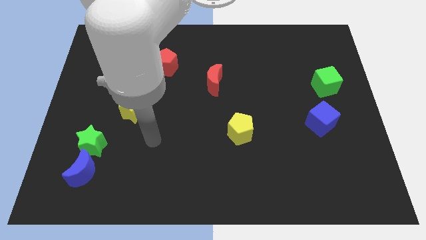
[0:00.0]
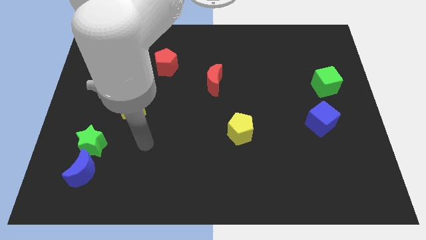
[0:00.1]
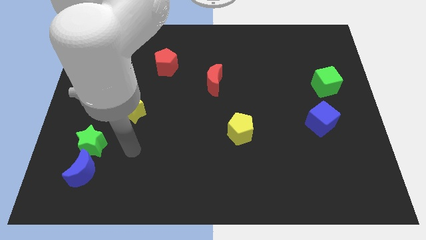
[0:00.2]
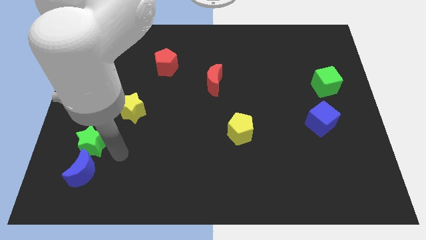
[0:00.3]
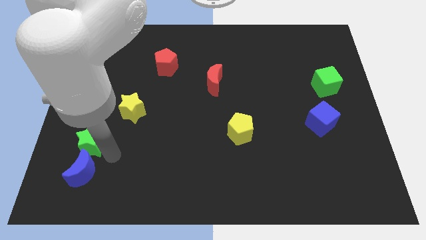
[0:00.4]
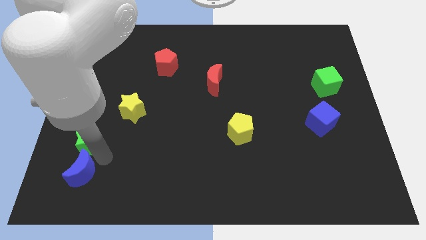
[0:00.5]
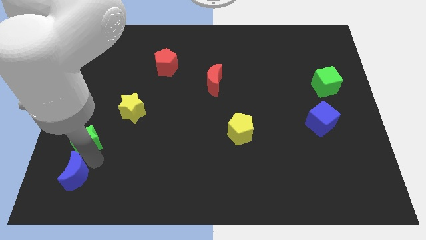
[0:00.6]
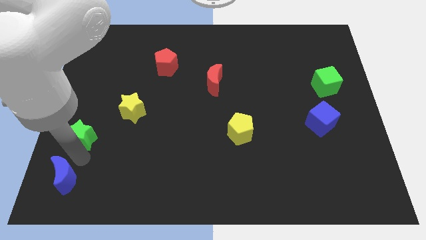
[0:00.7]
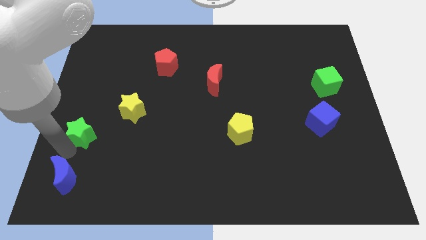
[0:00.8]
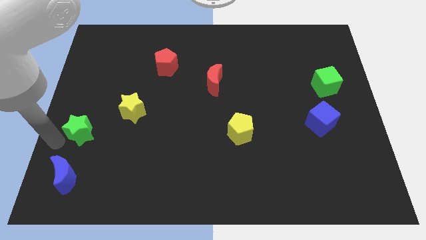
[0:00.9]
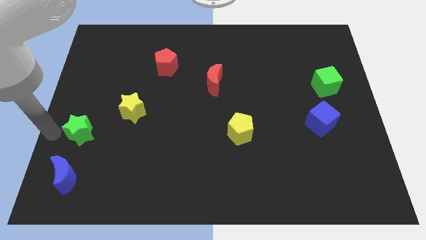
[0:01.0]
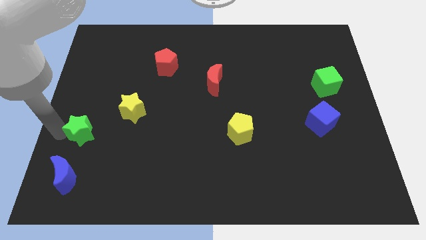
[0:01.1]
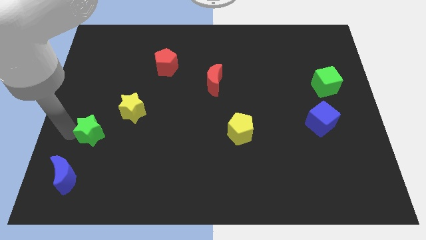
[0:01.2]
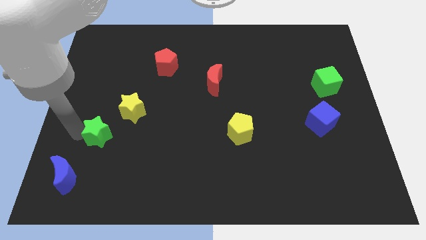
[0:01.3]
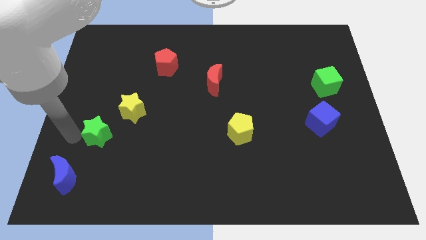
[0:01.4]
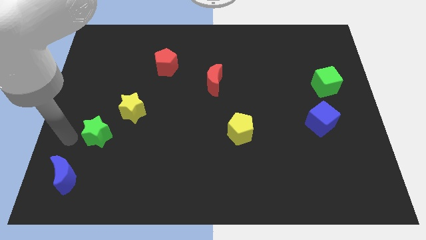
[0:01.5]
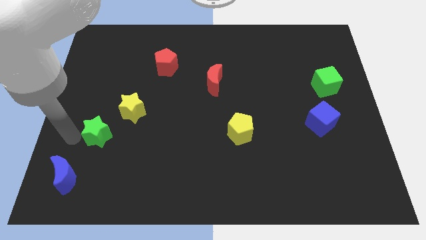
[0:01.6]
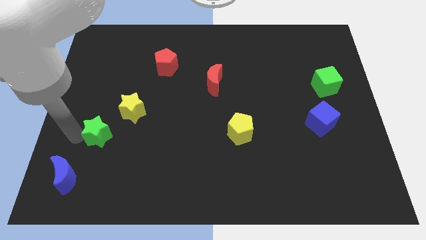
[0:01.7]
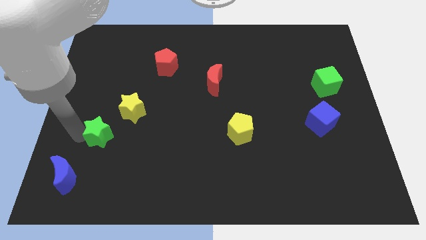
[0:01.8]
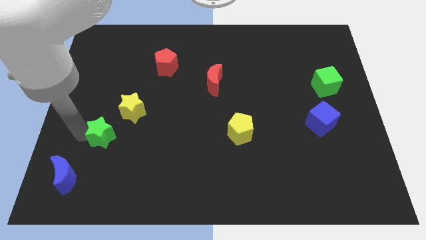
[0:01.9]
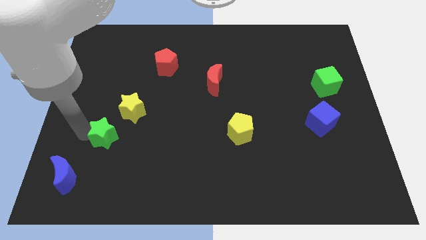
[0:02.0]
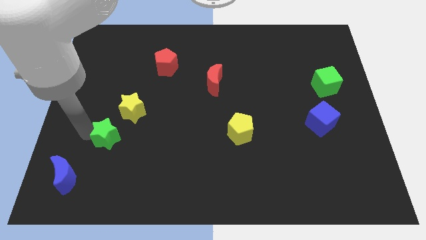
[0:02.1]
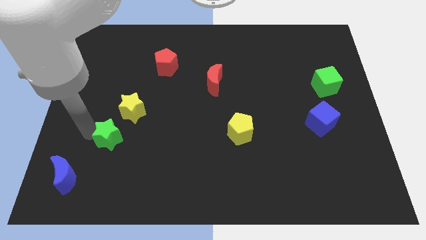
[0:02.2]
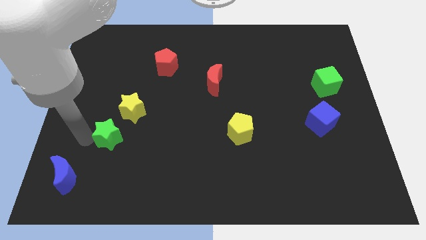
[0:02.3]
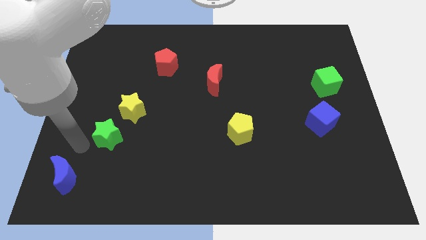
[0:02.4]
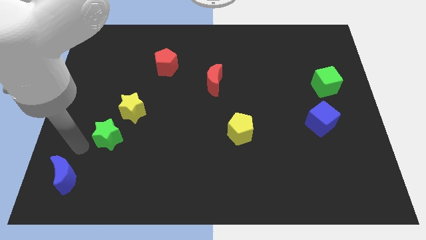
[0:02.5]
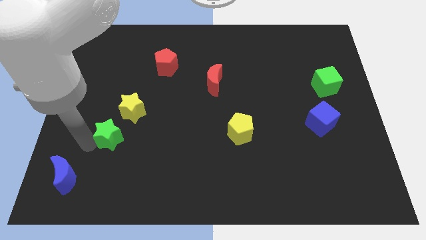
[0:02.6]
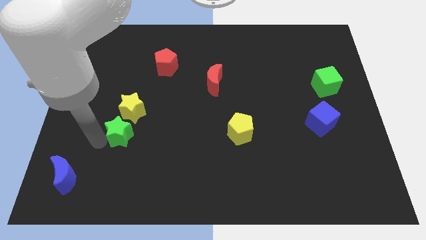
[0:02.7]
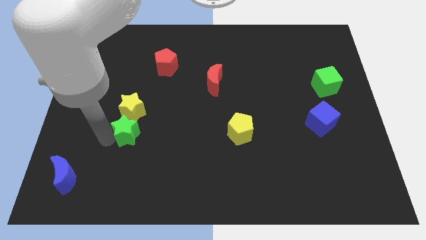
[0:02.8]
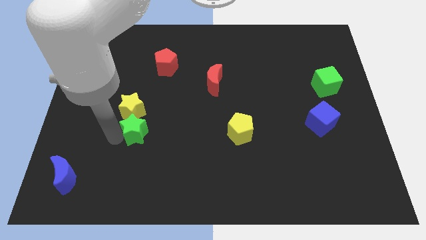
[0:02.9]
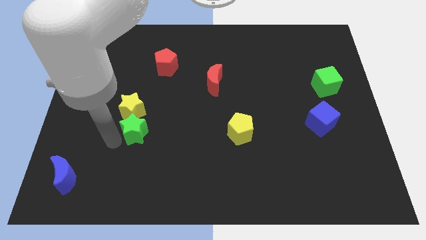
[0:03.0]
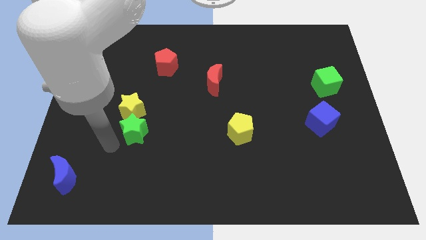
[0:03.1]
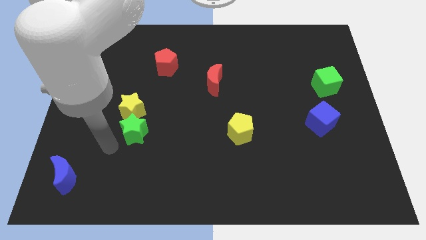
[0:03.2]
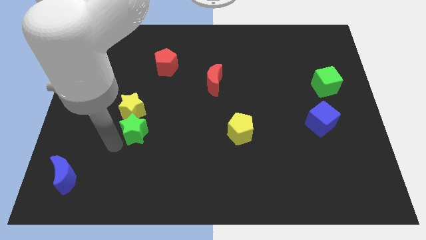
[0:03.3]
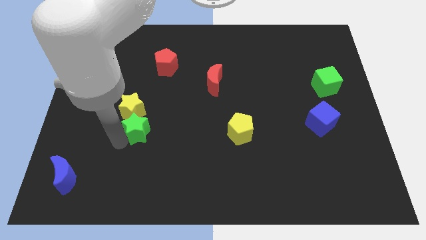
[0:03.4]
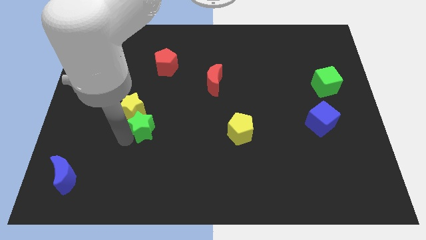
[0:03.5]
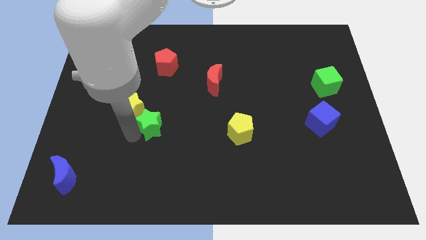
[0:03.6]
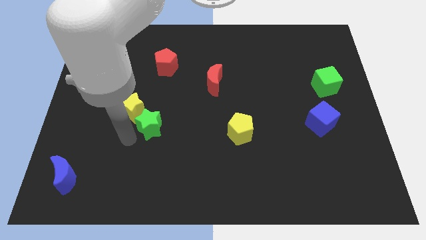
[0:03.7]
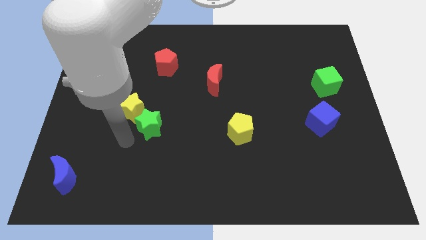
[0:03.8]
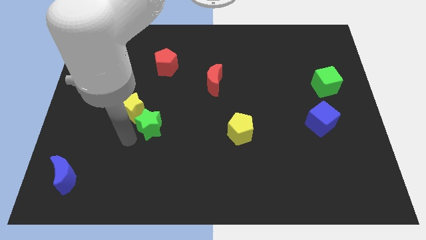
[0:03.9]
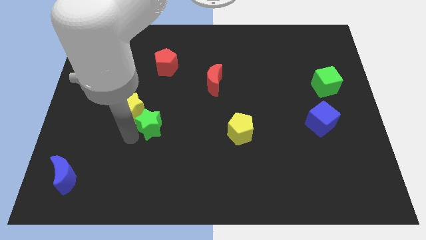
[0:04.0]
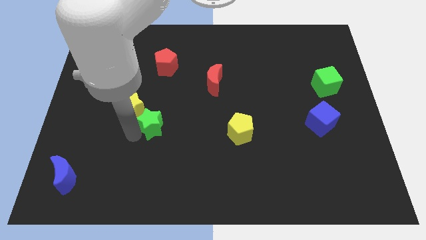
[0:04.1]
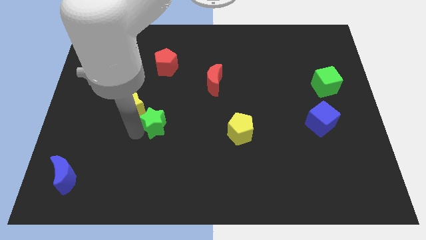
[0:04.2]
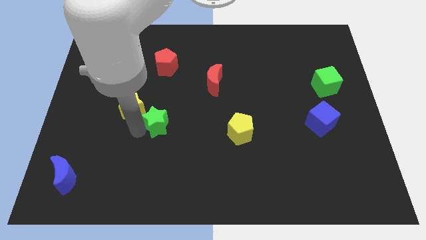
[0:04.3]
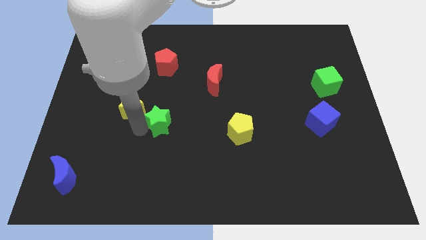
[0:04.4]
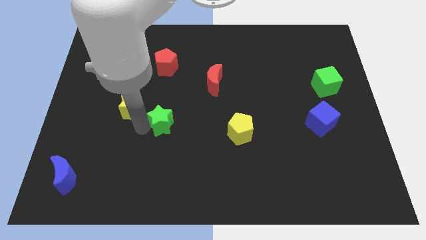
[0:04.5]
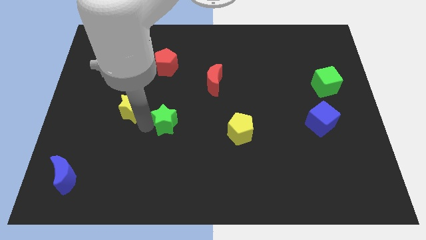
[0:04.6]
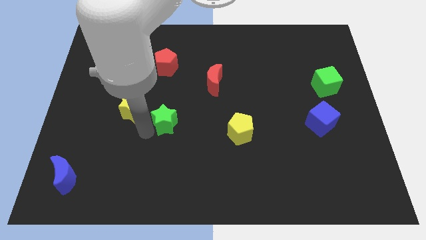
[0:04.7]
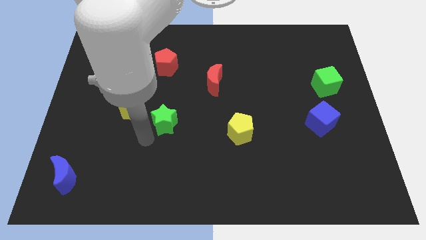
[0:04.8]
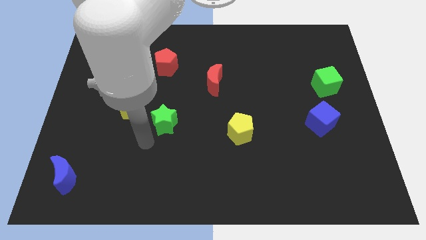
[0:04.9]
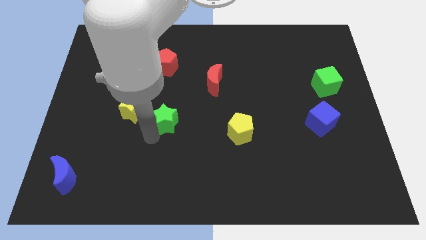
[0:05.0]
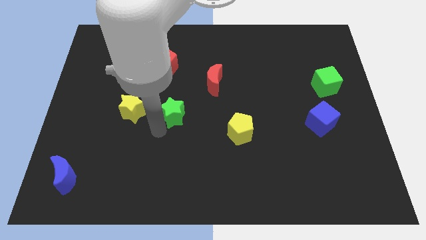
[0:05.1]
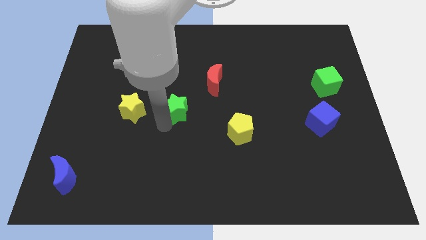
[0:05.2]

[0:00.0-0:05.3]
push the green star to the bottom left side of the red moon
